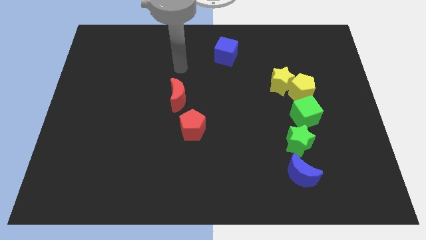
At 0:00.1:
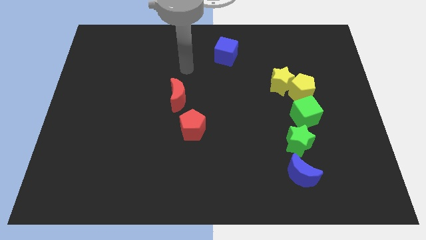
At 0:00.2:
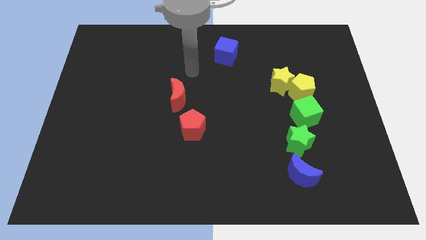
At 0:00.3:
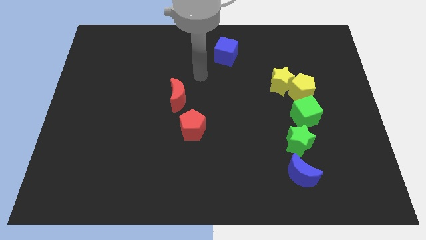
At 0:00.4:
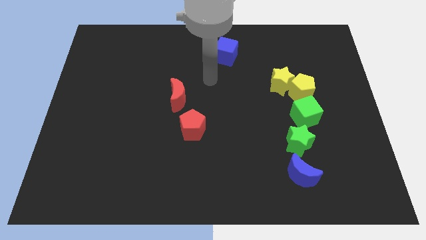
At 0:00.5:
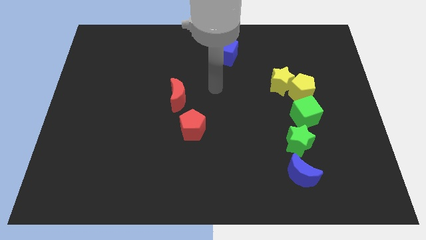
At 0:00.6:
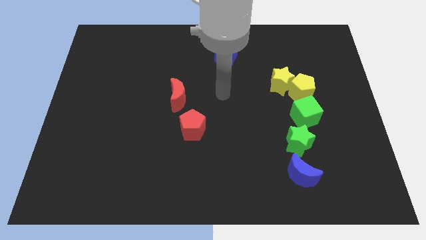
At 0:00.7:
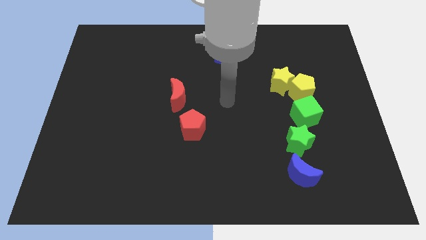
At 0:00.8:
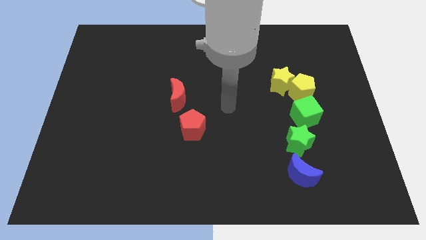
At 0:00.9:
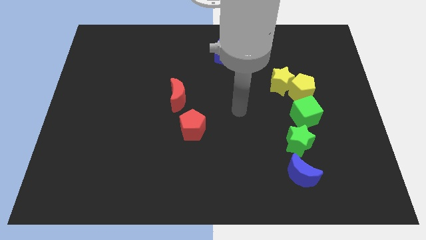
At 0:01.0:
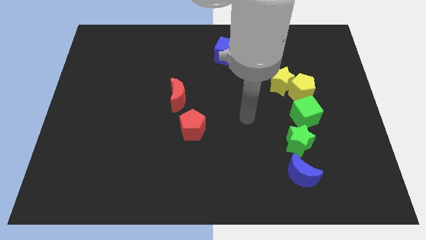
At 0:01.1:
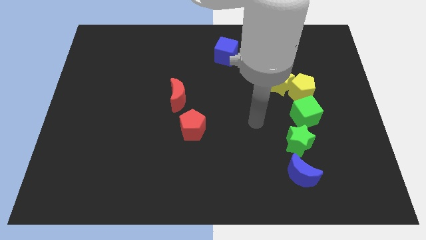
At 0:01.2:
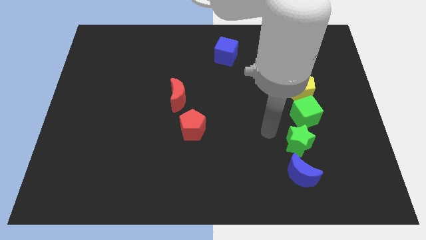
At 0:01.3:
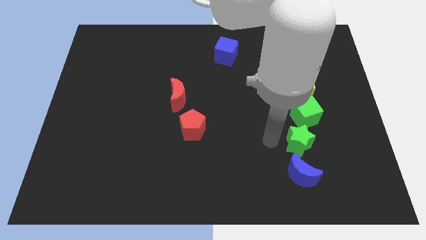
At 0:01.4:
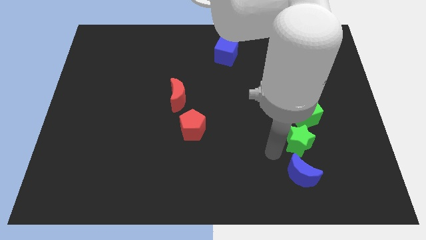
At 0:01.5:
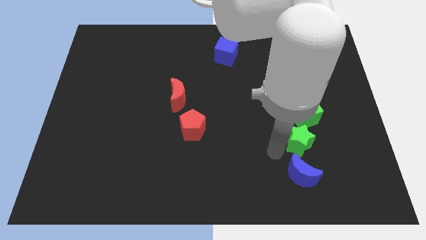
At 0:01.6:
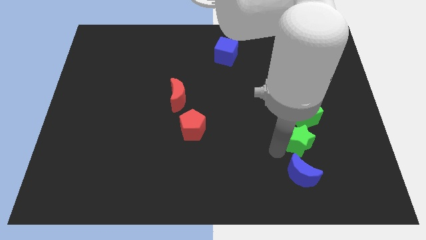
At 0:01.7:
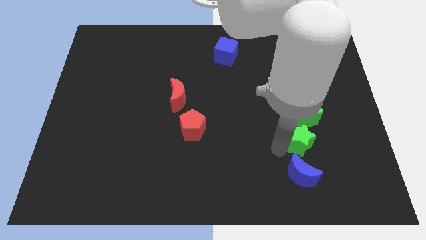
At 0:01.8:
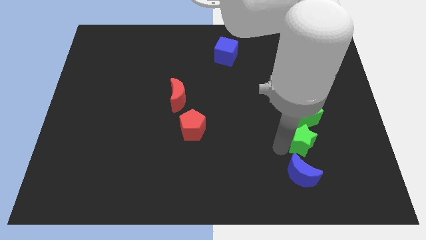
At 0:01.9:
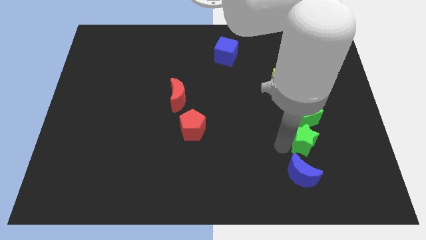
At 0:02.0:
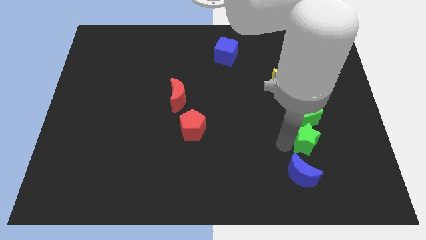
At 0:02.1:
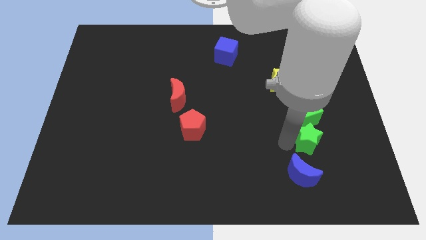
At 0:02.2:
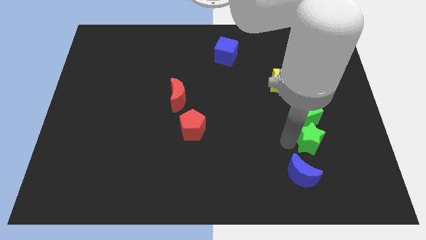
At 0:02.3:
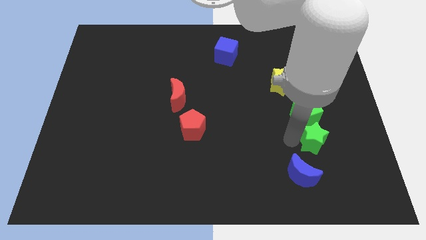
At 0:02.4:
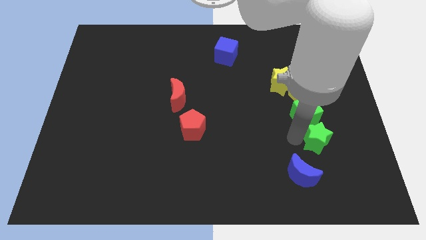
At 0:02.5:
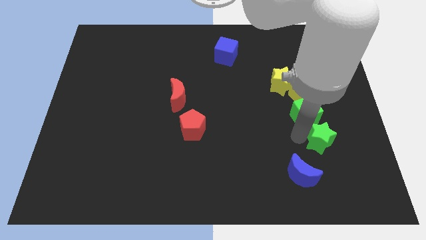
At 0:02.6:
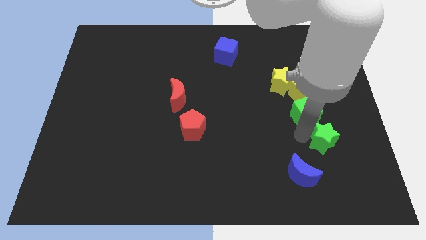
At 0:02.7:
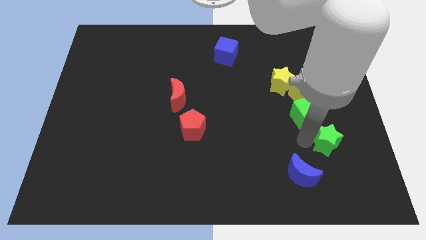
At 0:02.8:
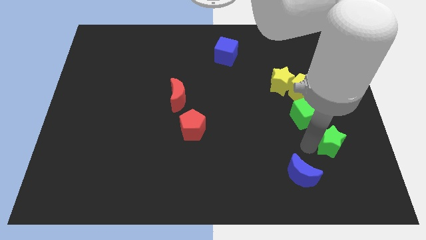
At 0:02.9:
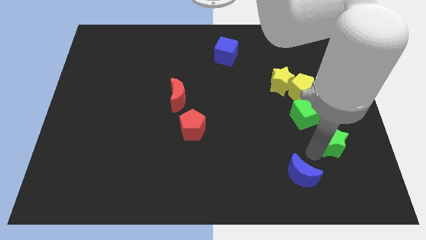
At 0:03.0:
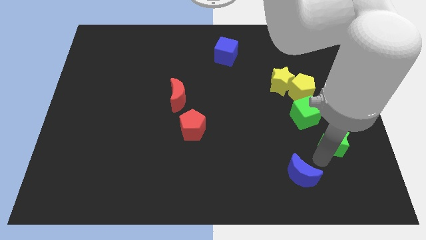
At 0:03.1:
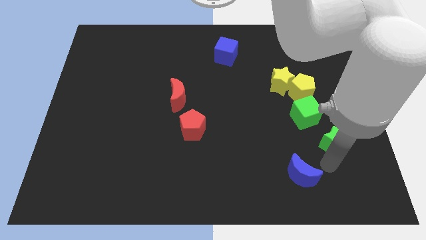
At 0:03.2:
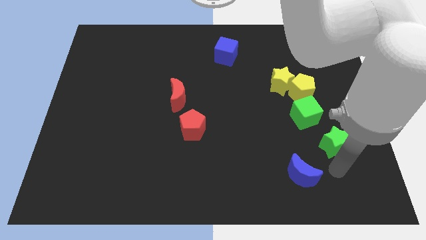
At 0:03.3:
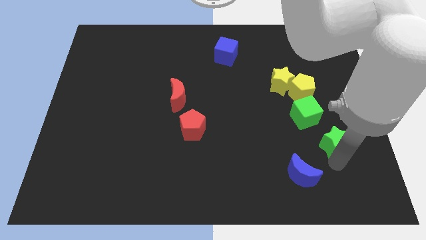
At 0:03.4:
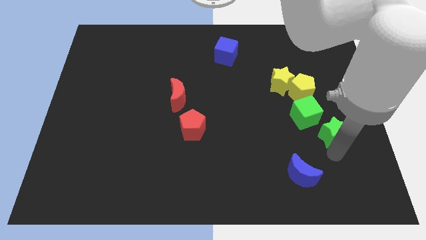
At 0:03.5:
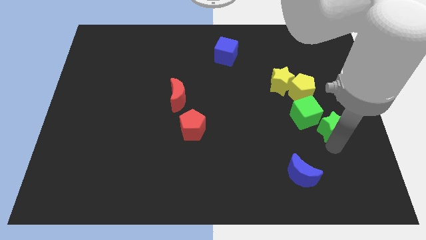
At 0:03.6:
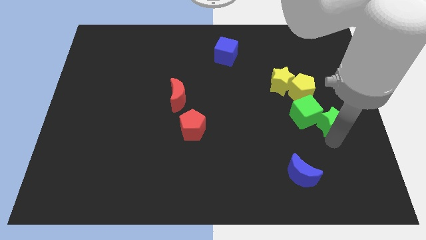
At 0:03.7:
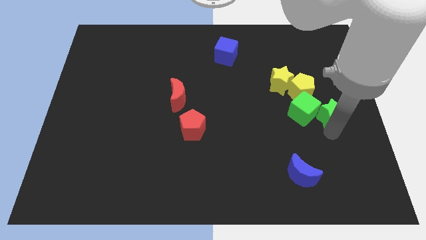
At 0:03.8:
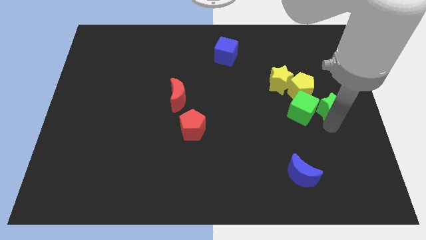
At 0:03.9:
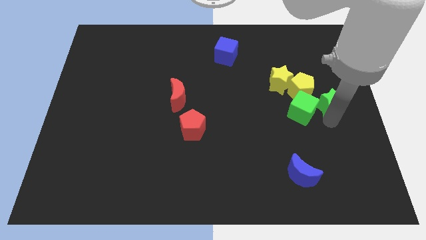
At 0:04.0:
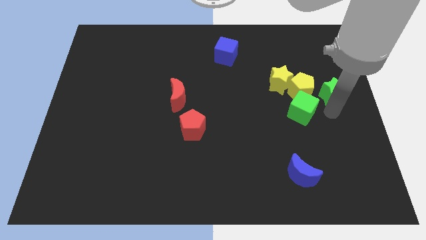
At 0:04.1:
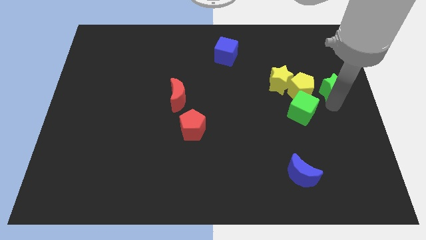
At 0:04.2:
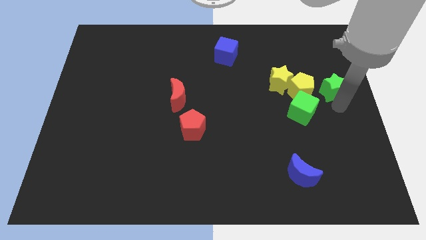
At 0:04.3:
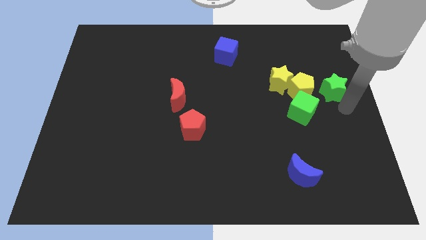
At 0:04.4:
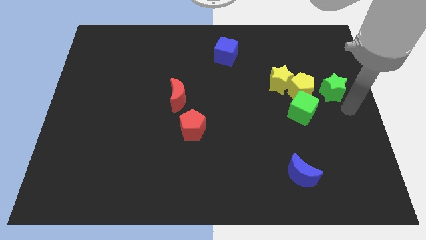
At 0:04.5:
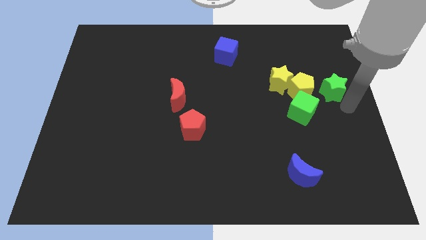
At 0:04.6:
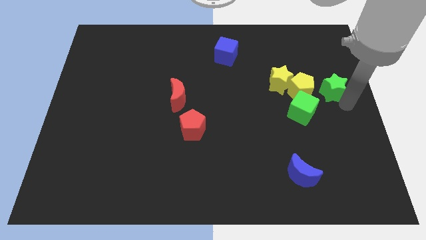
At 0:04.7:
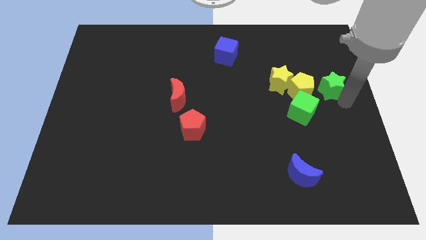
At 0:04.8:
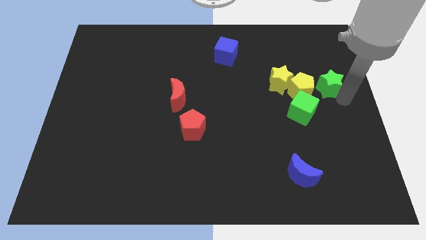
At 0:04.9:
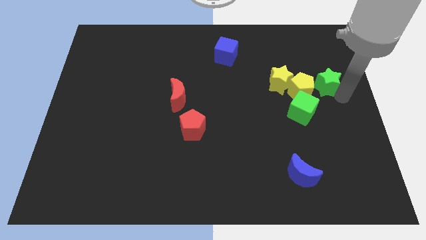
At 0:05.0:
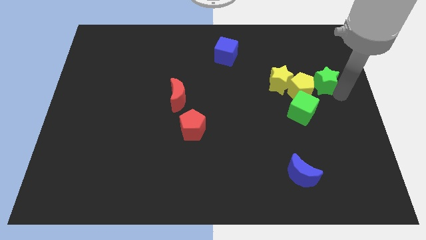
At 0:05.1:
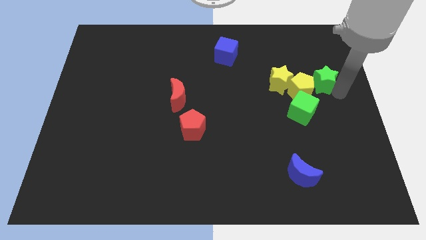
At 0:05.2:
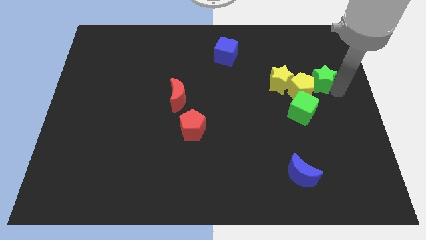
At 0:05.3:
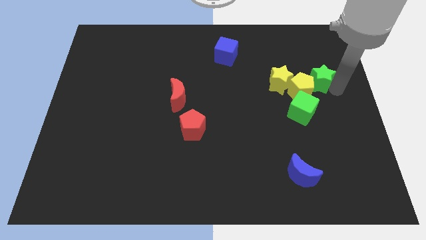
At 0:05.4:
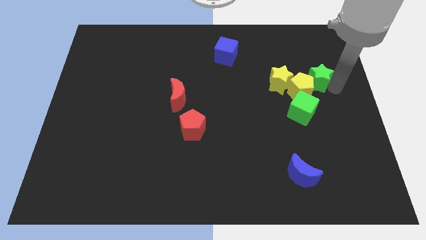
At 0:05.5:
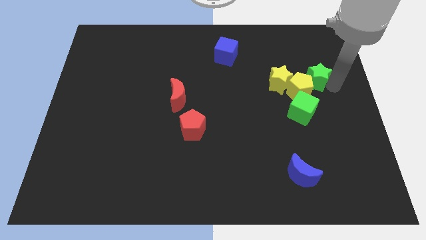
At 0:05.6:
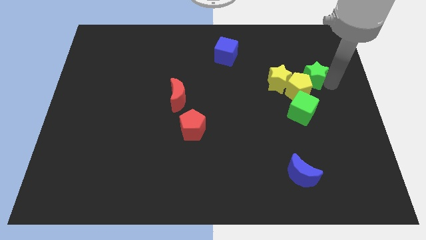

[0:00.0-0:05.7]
put the green star above the yellow pentagon

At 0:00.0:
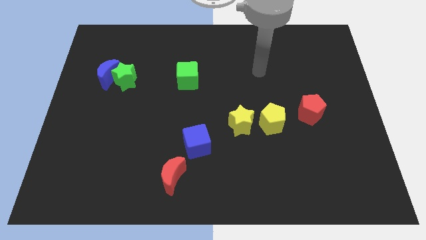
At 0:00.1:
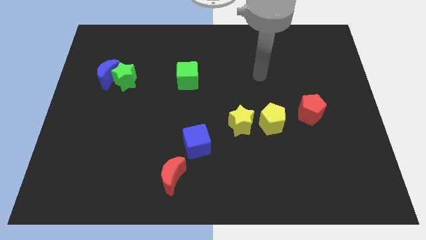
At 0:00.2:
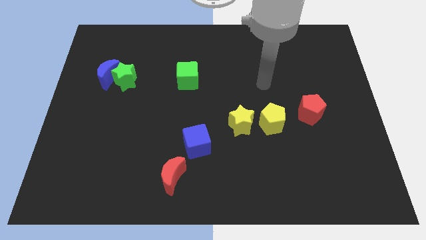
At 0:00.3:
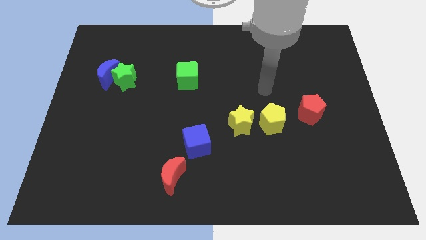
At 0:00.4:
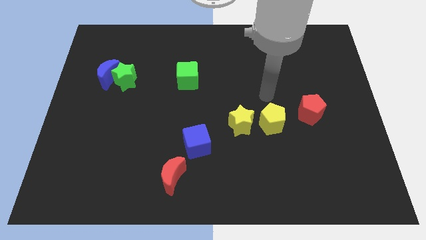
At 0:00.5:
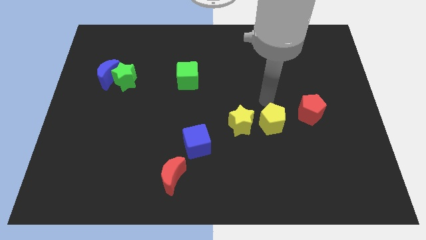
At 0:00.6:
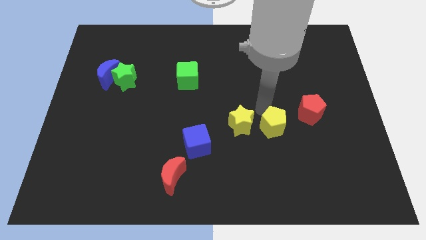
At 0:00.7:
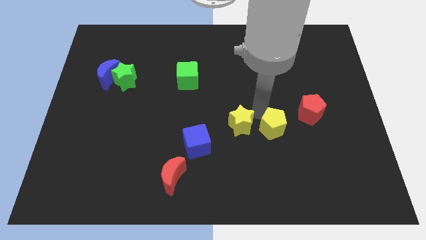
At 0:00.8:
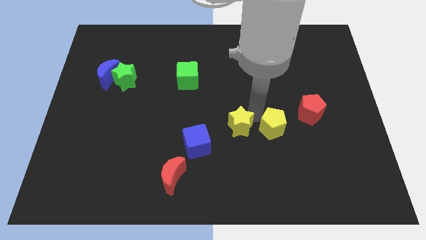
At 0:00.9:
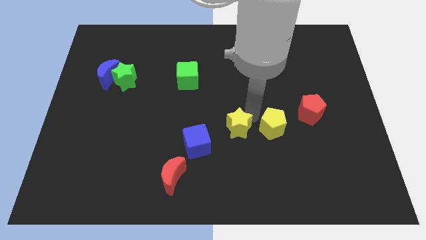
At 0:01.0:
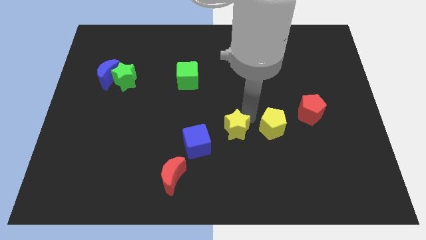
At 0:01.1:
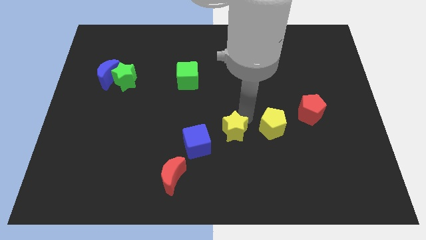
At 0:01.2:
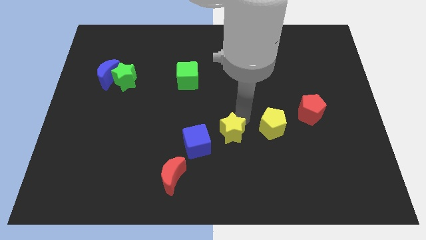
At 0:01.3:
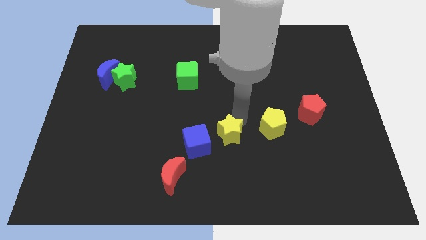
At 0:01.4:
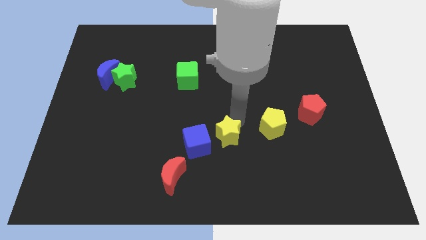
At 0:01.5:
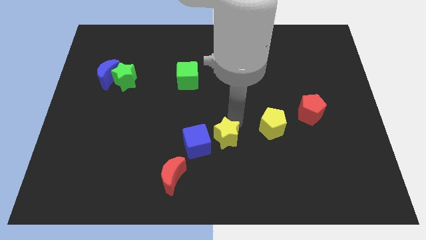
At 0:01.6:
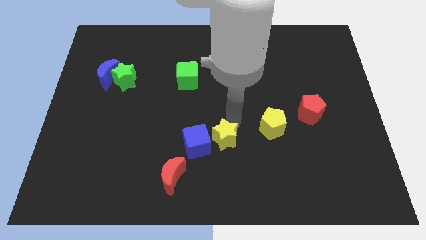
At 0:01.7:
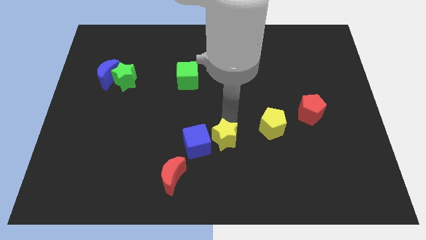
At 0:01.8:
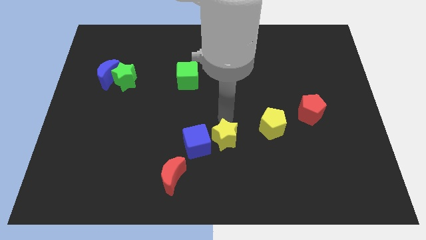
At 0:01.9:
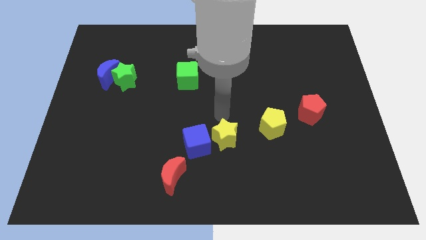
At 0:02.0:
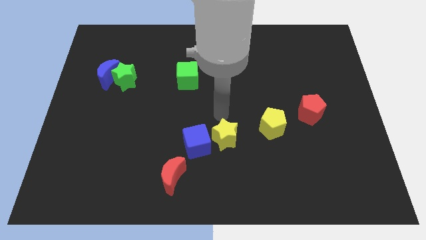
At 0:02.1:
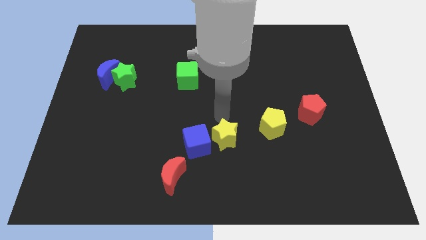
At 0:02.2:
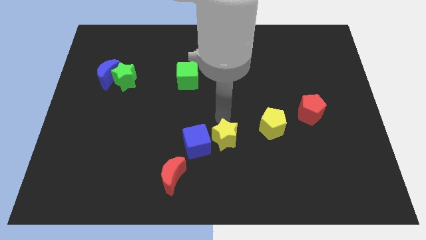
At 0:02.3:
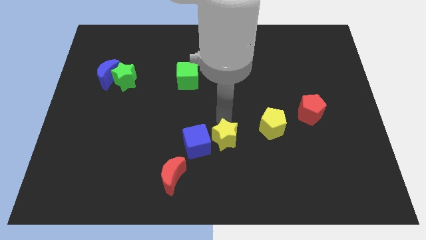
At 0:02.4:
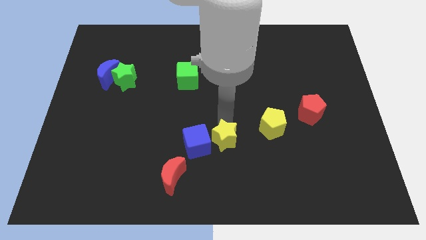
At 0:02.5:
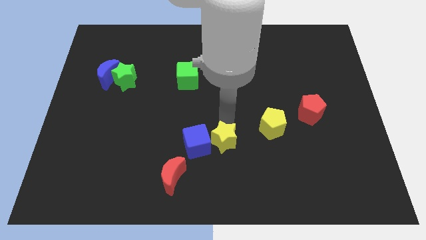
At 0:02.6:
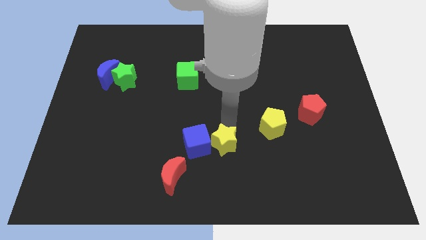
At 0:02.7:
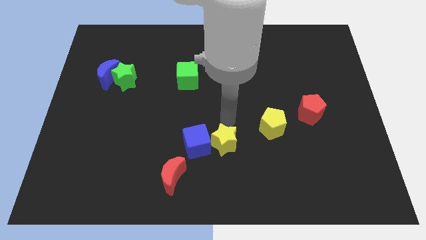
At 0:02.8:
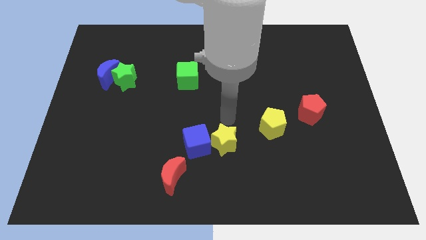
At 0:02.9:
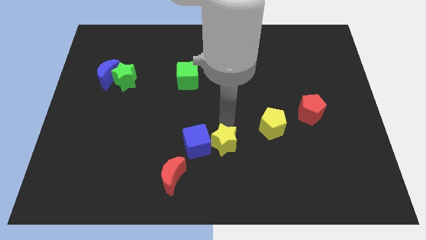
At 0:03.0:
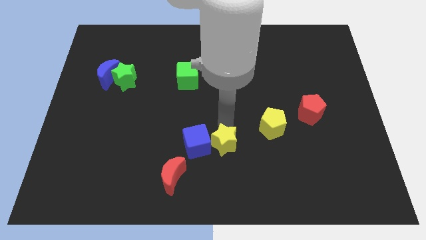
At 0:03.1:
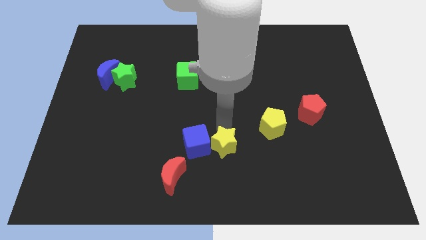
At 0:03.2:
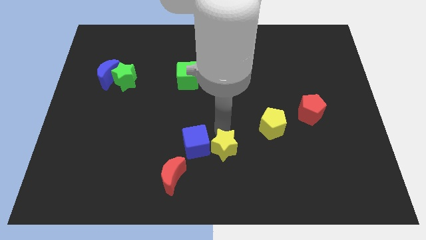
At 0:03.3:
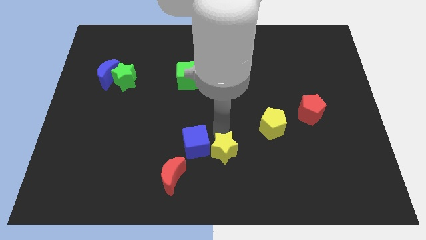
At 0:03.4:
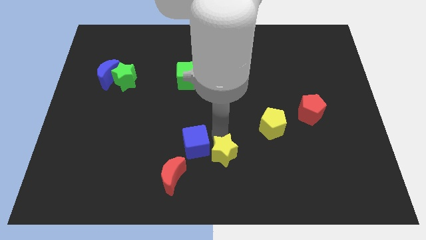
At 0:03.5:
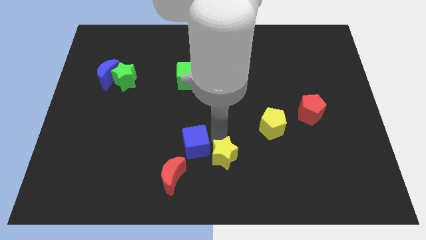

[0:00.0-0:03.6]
move the yellow star just right of the red moon
